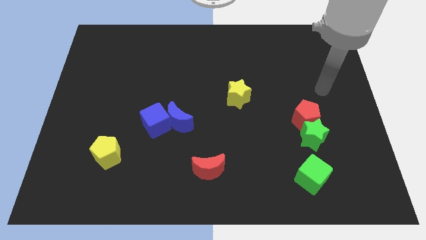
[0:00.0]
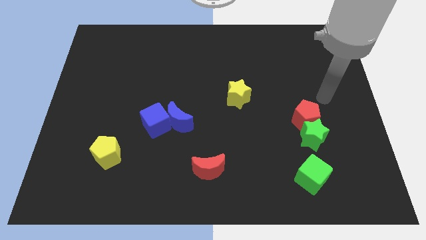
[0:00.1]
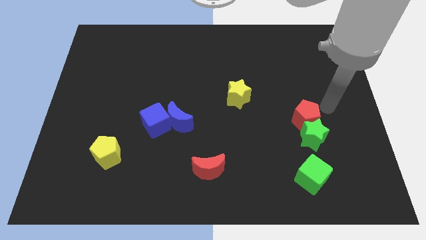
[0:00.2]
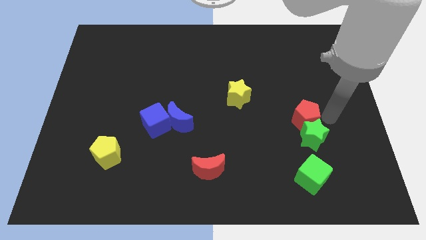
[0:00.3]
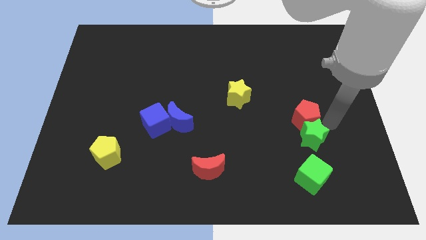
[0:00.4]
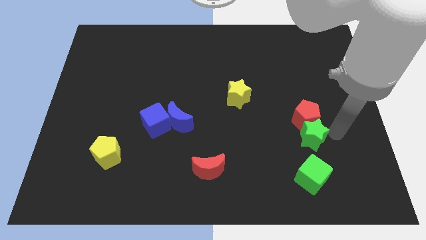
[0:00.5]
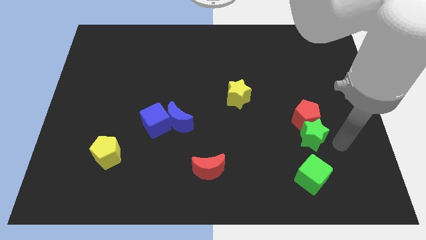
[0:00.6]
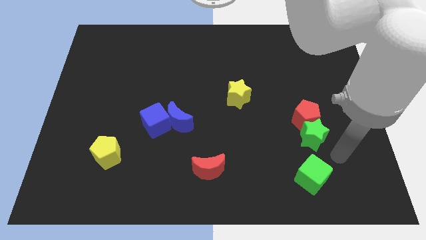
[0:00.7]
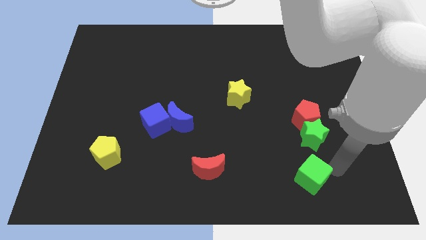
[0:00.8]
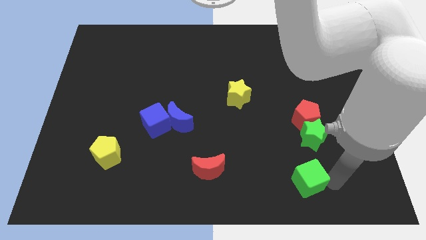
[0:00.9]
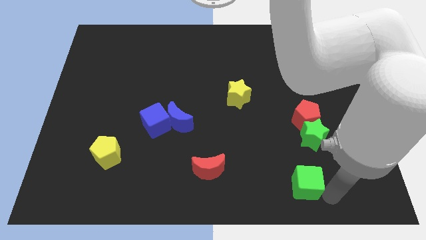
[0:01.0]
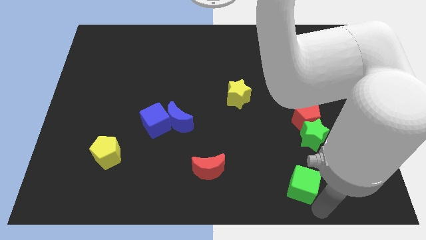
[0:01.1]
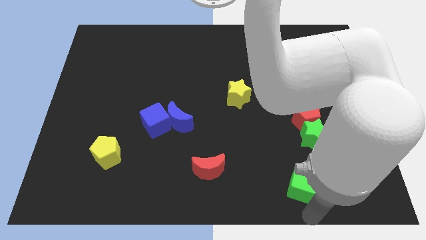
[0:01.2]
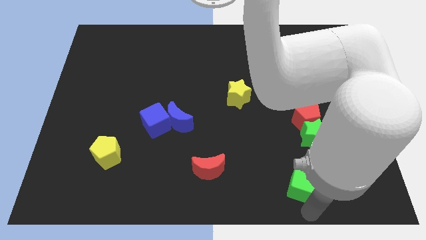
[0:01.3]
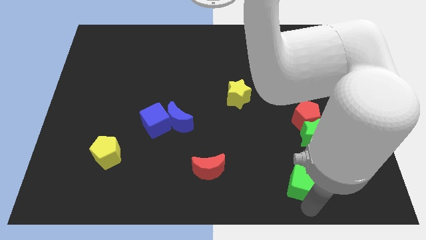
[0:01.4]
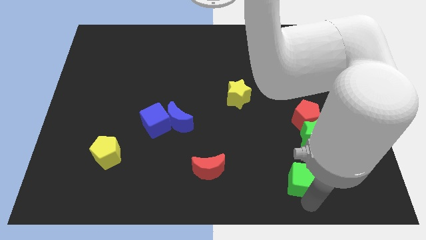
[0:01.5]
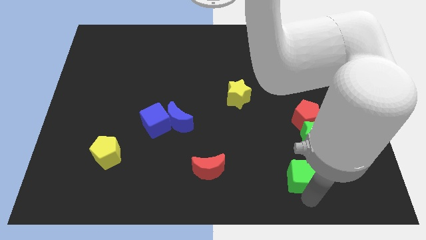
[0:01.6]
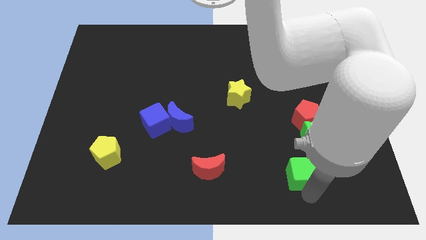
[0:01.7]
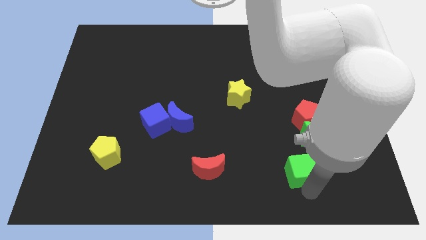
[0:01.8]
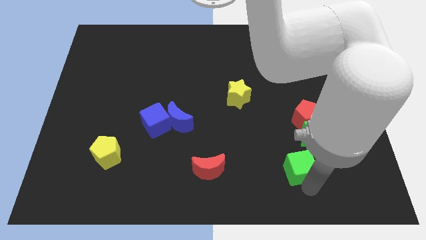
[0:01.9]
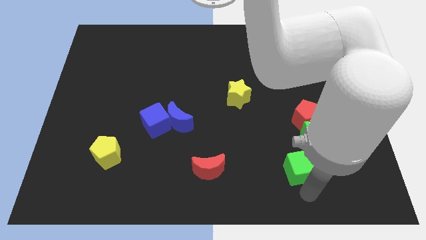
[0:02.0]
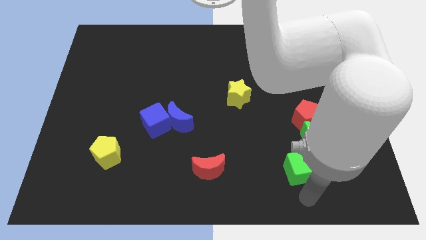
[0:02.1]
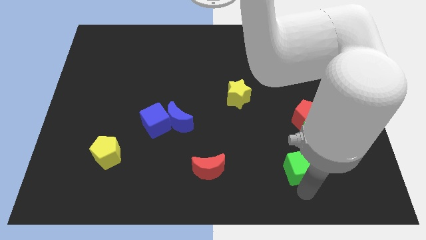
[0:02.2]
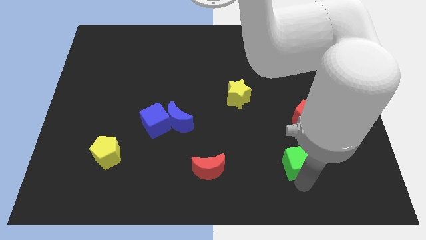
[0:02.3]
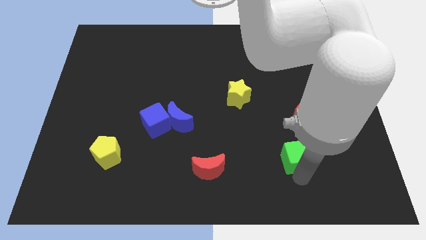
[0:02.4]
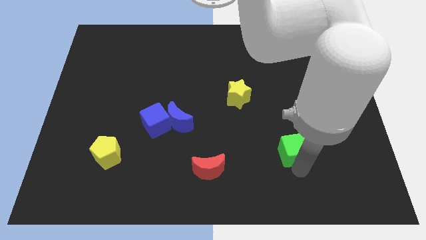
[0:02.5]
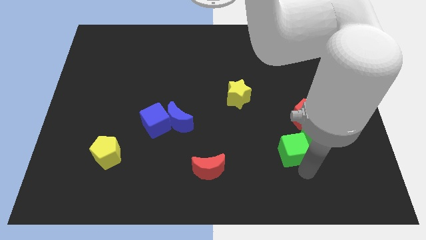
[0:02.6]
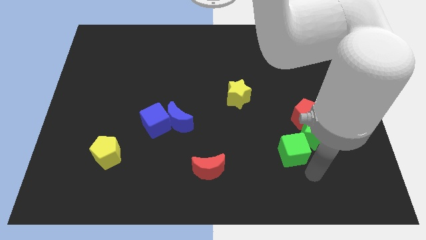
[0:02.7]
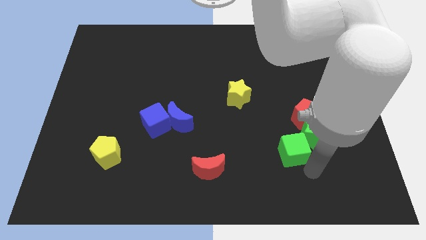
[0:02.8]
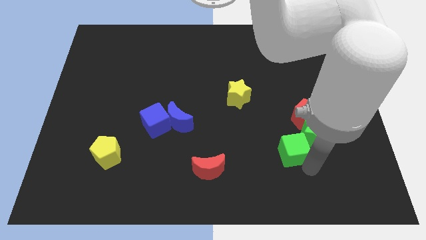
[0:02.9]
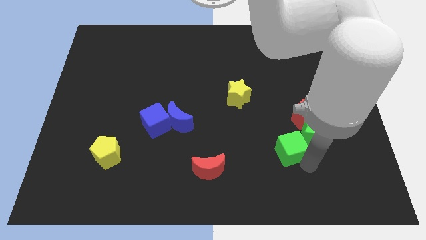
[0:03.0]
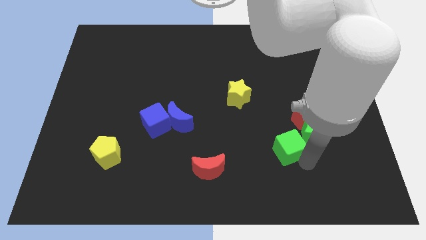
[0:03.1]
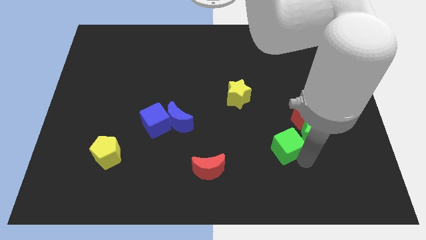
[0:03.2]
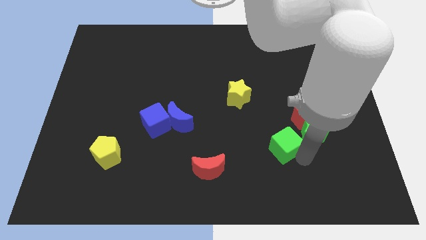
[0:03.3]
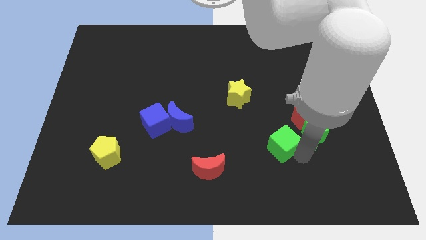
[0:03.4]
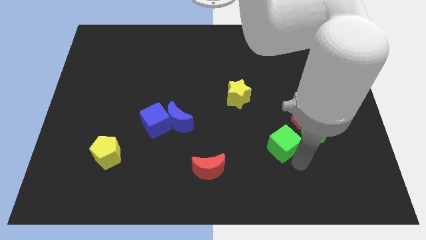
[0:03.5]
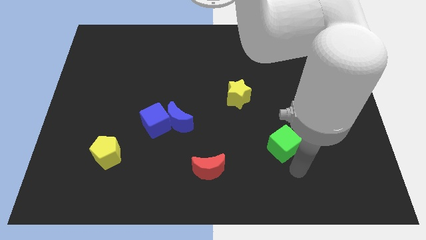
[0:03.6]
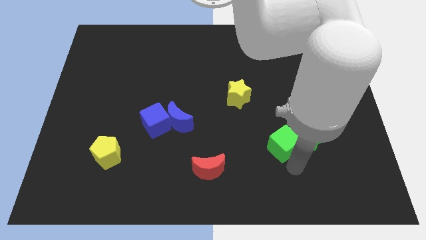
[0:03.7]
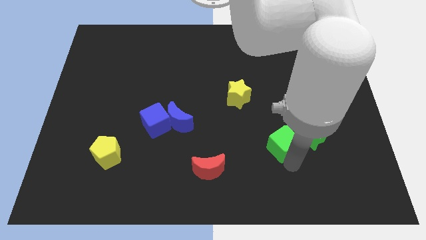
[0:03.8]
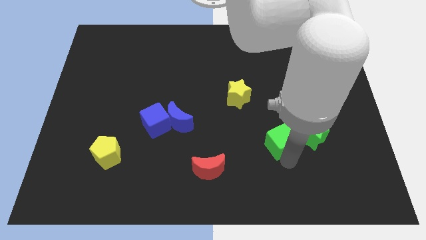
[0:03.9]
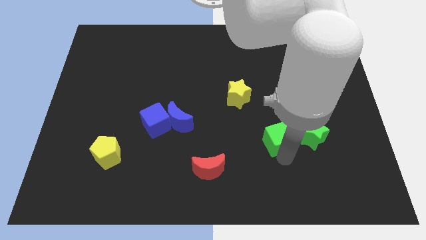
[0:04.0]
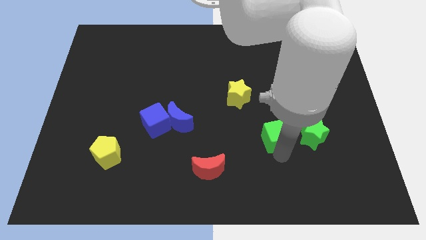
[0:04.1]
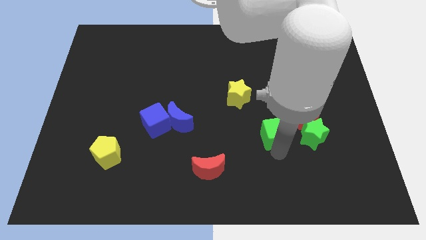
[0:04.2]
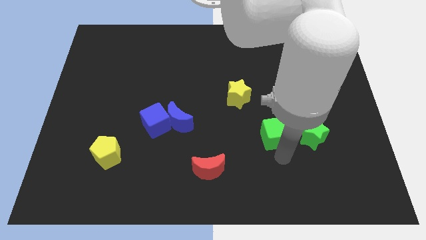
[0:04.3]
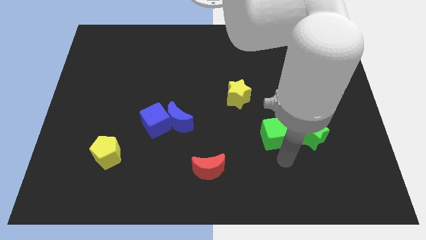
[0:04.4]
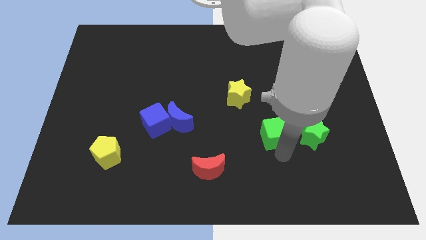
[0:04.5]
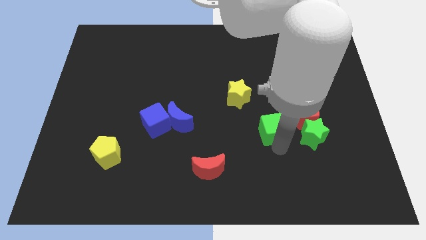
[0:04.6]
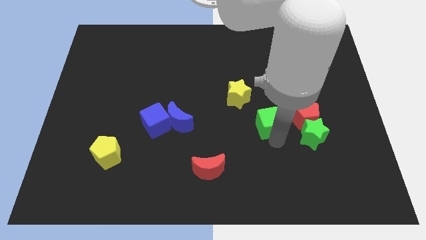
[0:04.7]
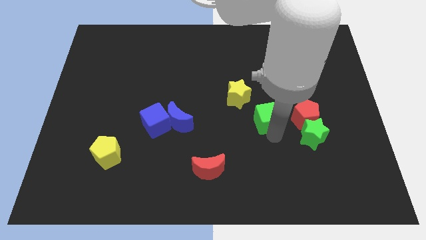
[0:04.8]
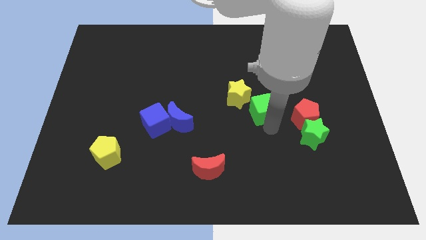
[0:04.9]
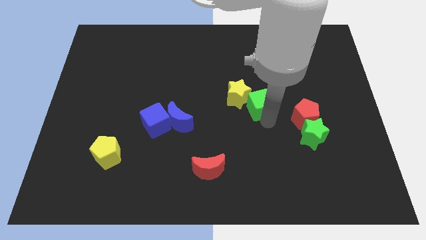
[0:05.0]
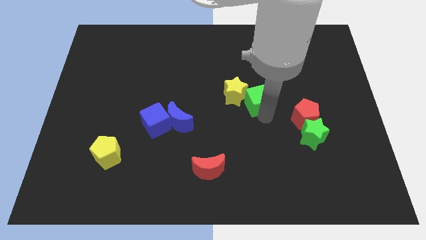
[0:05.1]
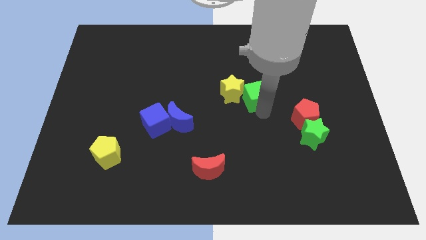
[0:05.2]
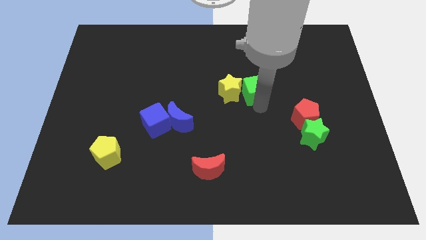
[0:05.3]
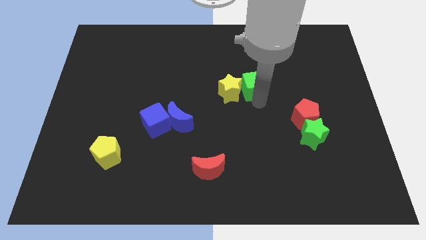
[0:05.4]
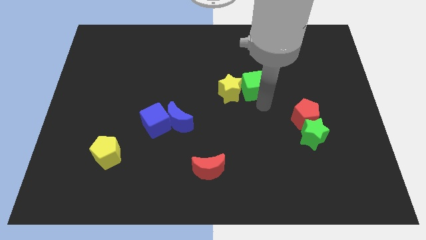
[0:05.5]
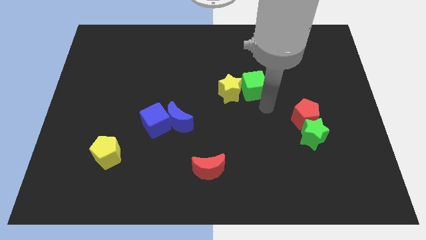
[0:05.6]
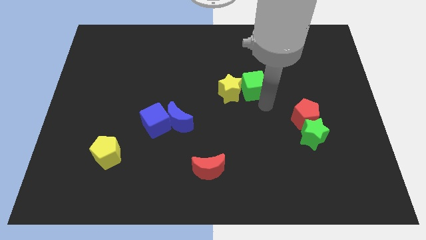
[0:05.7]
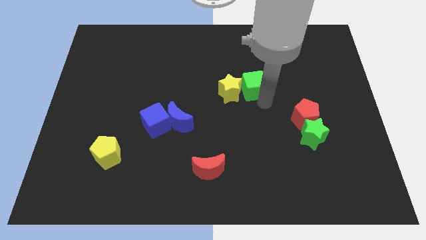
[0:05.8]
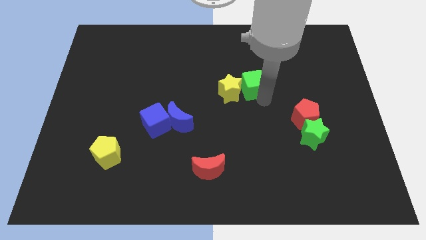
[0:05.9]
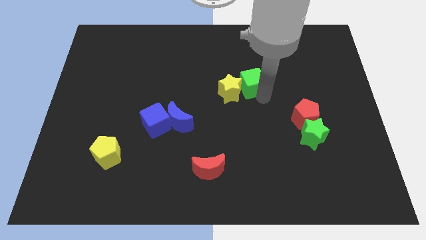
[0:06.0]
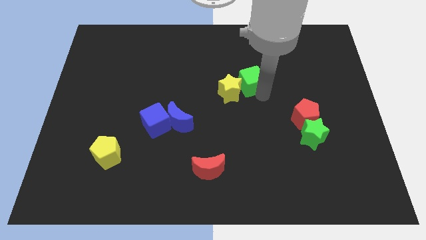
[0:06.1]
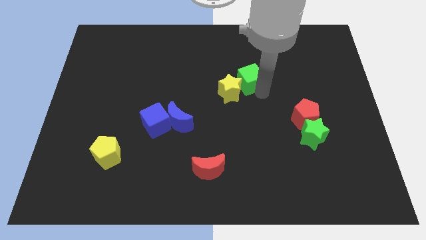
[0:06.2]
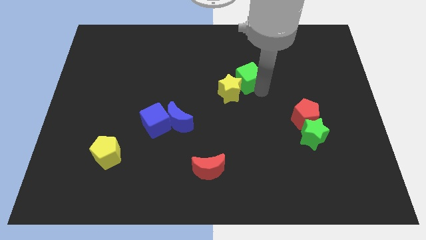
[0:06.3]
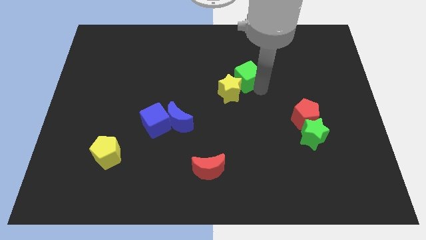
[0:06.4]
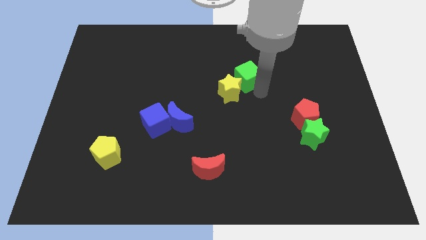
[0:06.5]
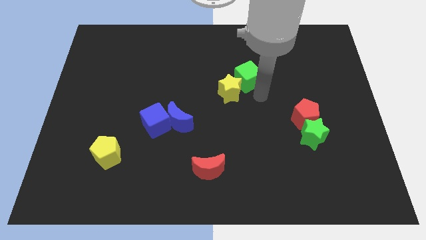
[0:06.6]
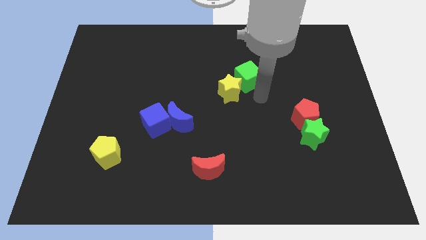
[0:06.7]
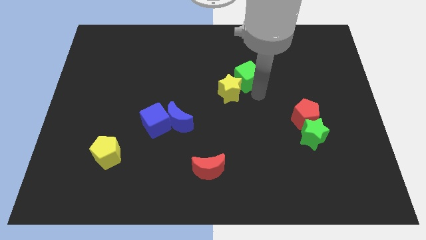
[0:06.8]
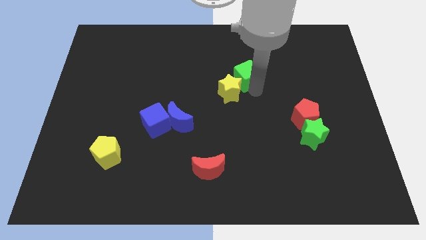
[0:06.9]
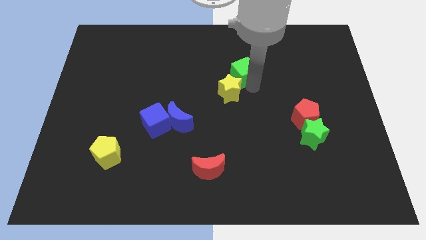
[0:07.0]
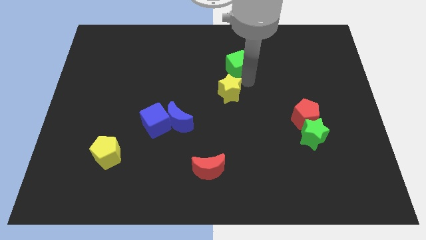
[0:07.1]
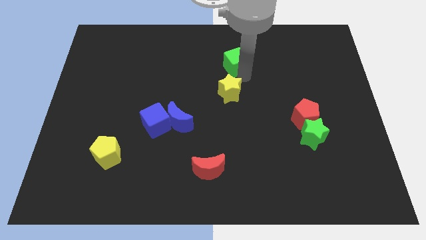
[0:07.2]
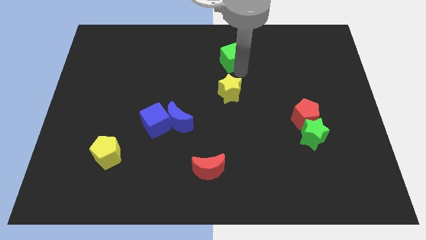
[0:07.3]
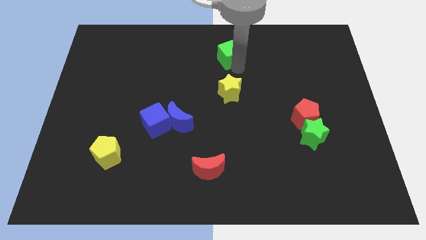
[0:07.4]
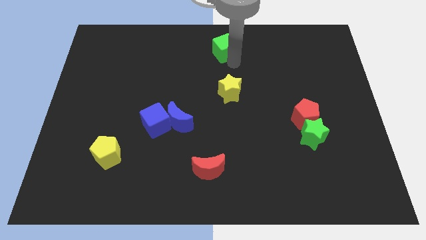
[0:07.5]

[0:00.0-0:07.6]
slide the green cube to the top side
